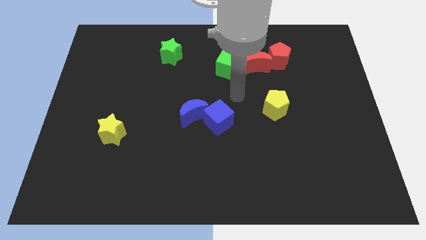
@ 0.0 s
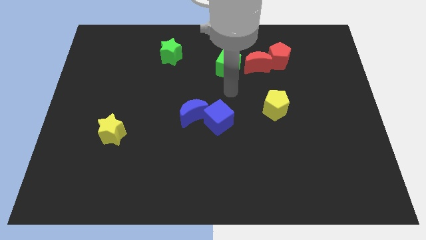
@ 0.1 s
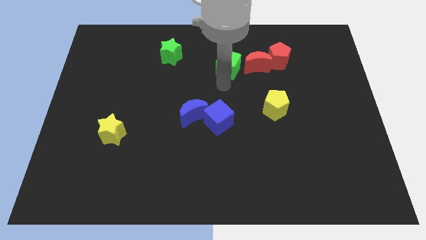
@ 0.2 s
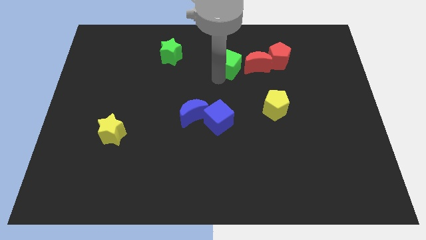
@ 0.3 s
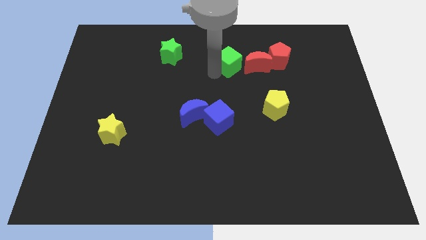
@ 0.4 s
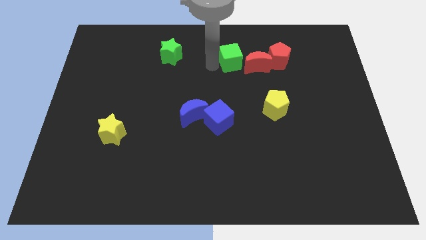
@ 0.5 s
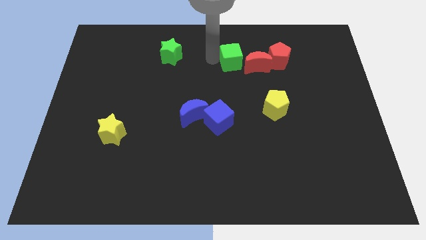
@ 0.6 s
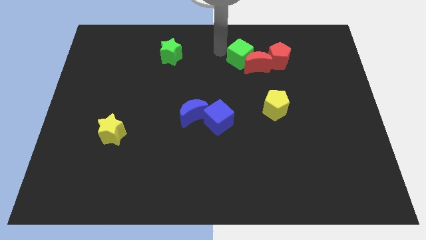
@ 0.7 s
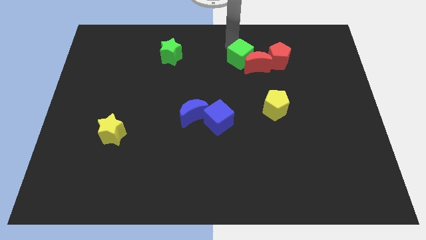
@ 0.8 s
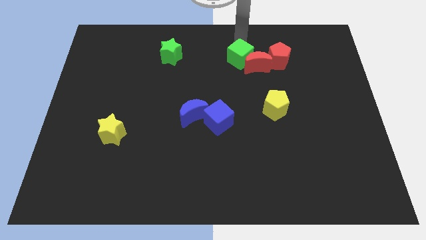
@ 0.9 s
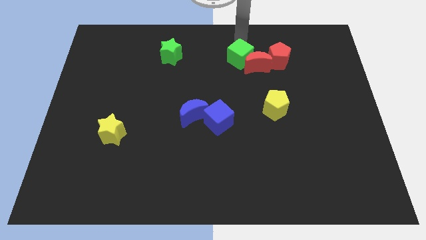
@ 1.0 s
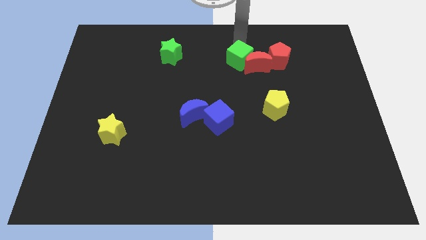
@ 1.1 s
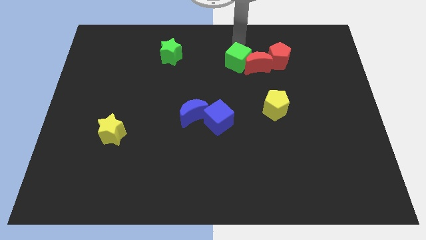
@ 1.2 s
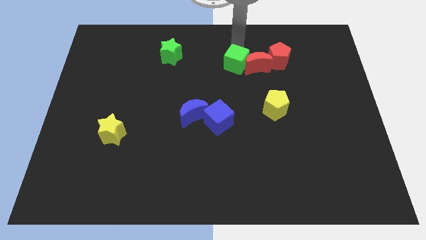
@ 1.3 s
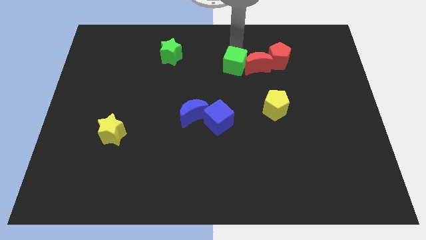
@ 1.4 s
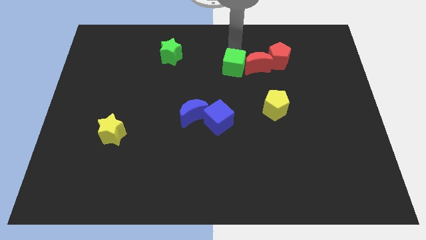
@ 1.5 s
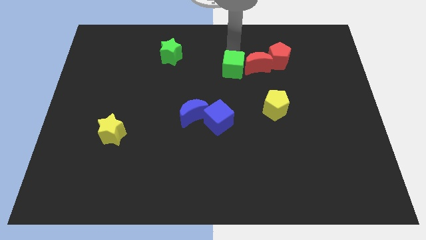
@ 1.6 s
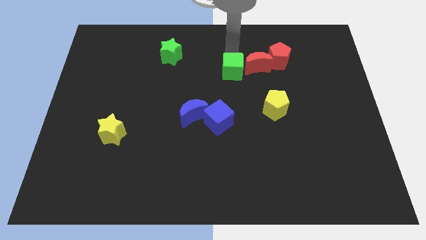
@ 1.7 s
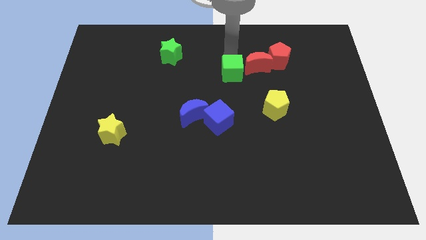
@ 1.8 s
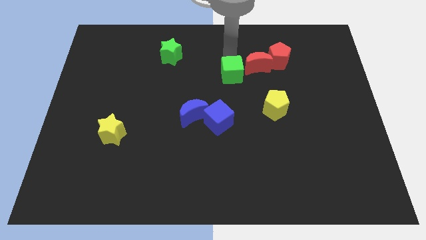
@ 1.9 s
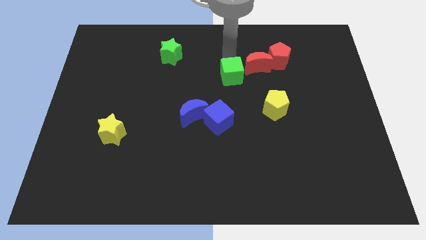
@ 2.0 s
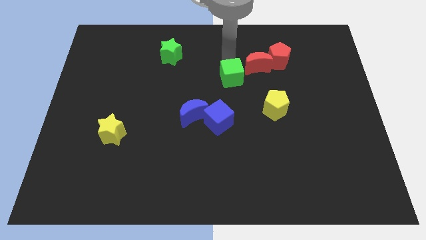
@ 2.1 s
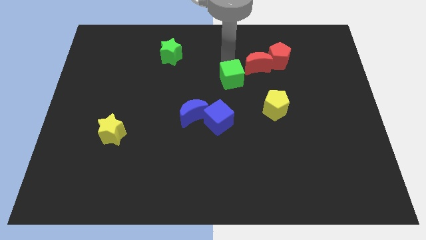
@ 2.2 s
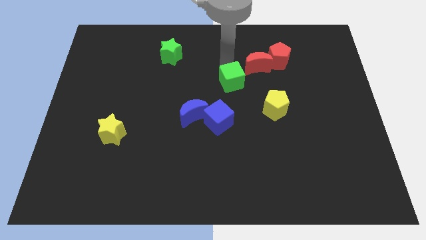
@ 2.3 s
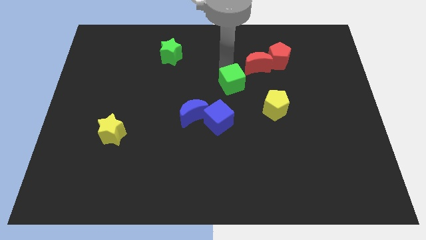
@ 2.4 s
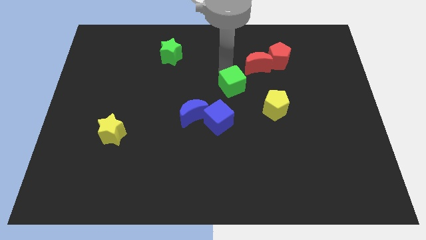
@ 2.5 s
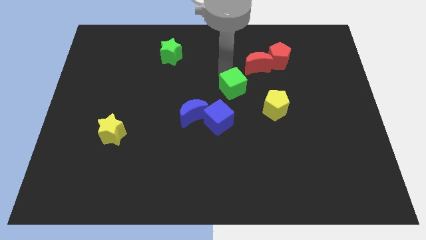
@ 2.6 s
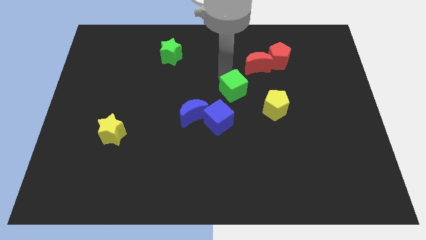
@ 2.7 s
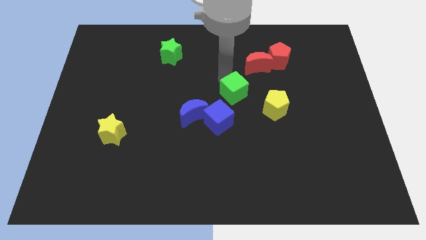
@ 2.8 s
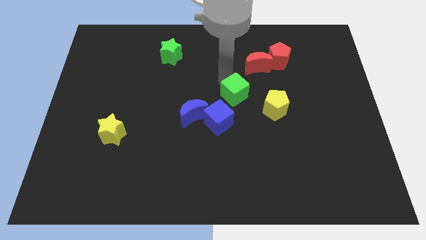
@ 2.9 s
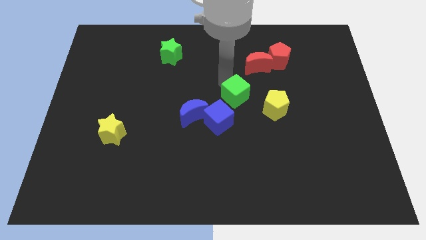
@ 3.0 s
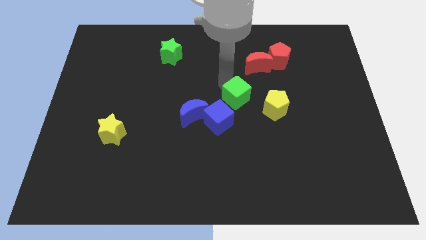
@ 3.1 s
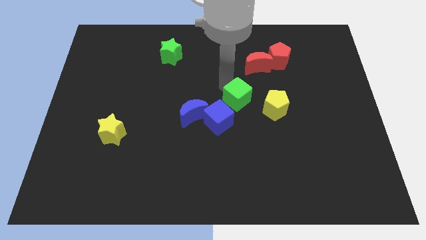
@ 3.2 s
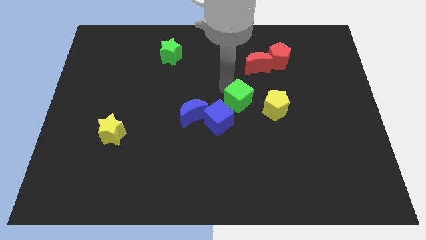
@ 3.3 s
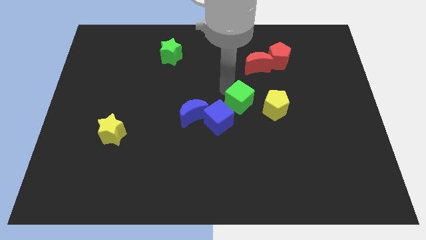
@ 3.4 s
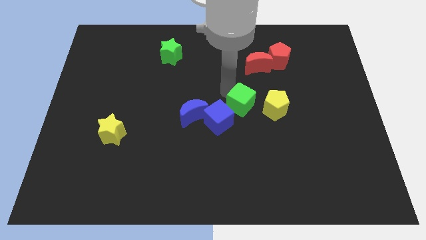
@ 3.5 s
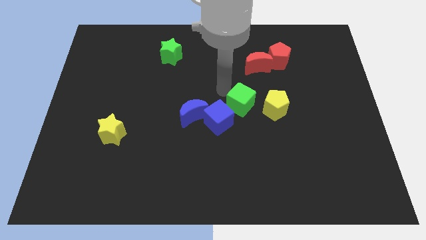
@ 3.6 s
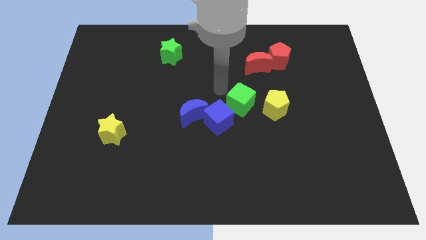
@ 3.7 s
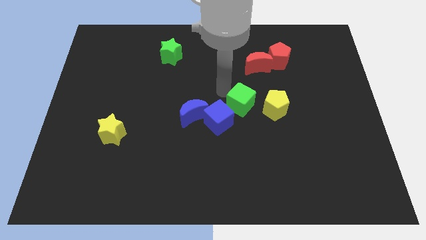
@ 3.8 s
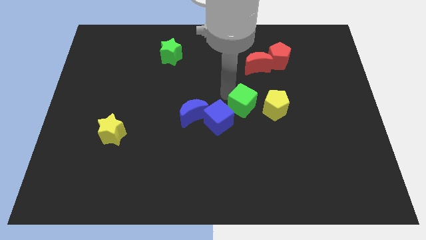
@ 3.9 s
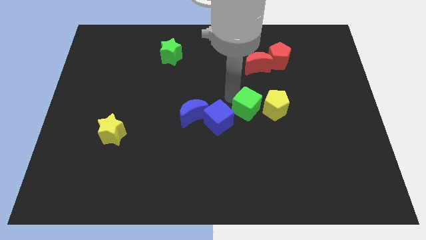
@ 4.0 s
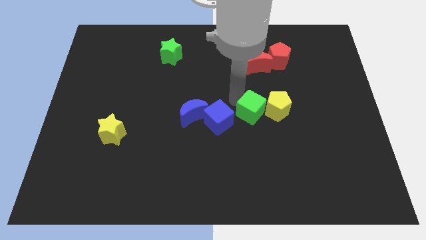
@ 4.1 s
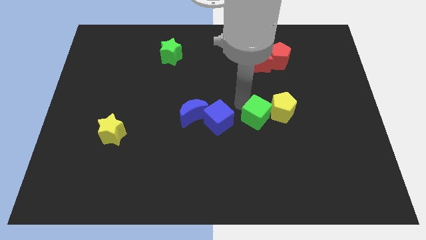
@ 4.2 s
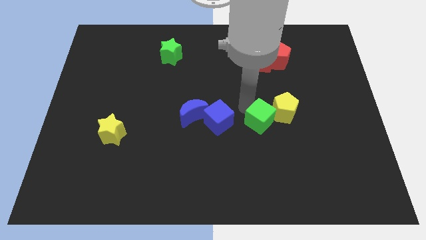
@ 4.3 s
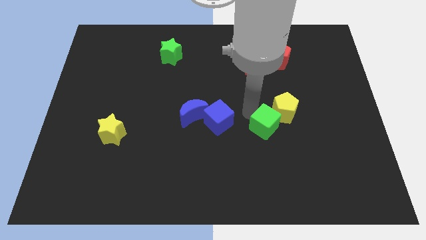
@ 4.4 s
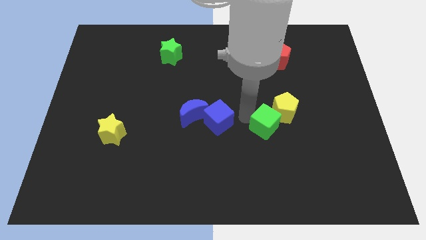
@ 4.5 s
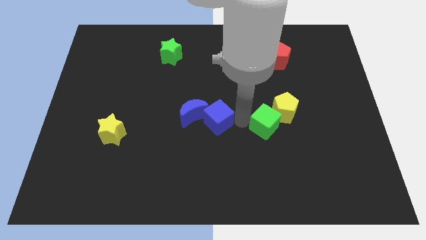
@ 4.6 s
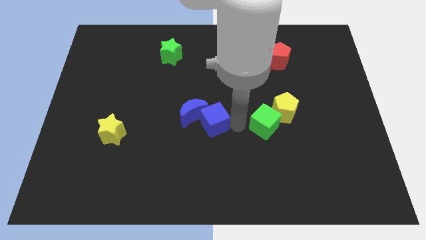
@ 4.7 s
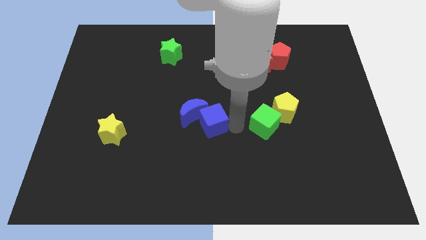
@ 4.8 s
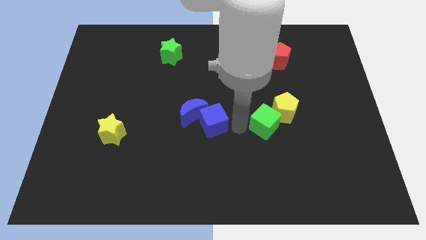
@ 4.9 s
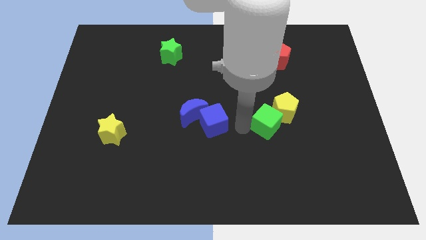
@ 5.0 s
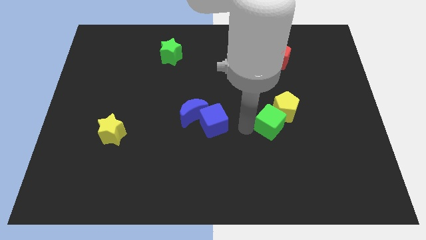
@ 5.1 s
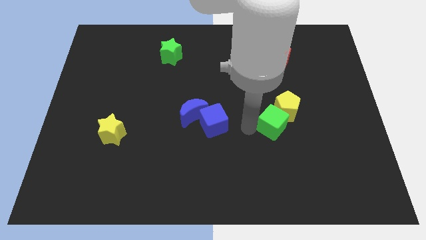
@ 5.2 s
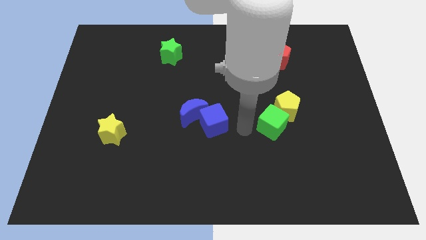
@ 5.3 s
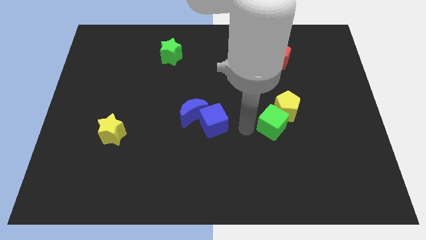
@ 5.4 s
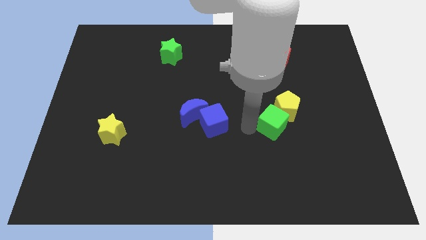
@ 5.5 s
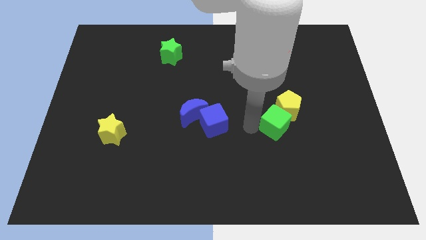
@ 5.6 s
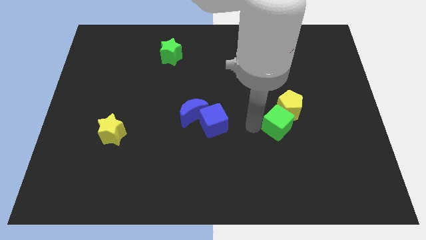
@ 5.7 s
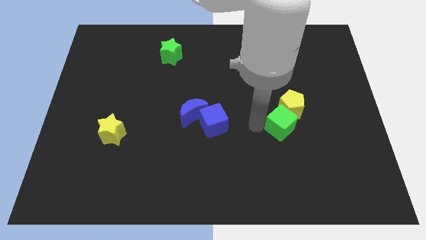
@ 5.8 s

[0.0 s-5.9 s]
move the green cube down and to the right diagonally

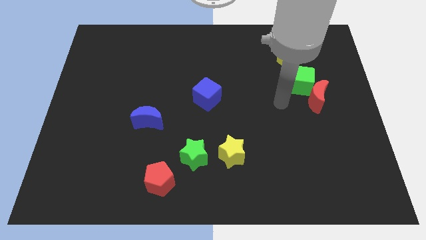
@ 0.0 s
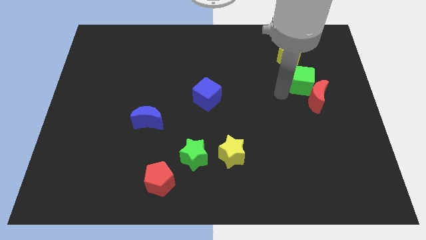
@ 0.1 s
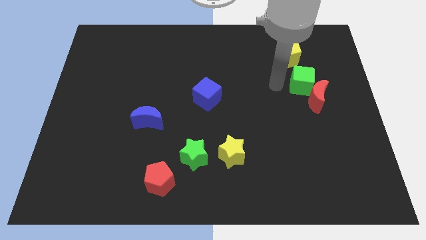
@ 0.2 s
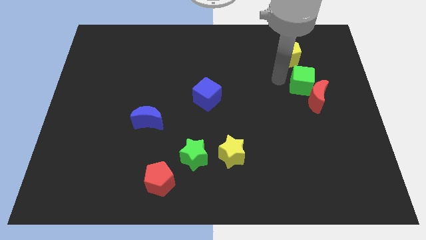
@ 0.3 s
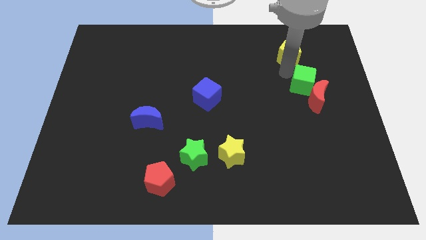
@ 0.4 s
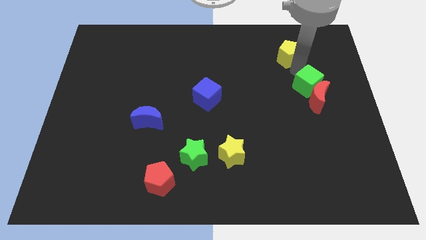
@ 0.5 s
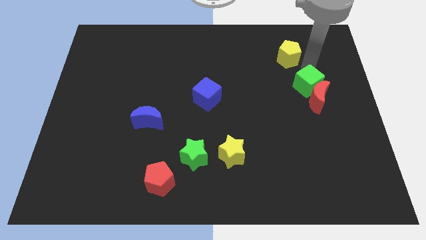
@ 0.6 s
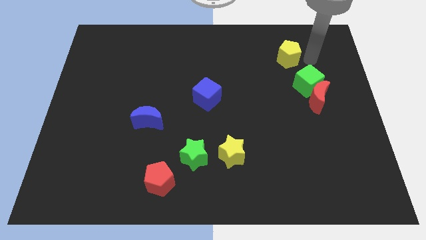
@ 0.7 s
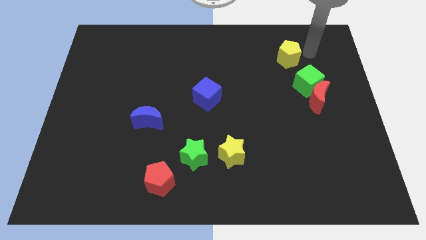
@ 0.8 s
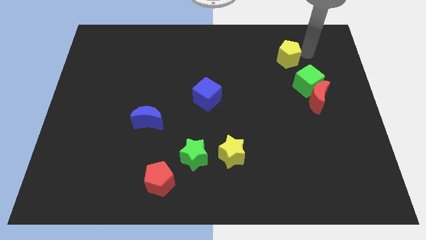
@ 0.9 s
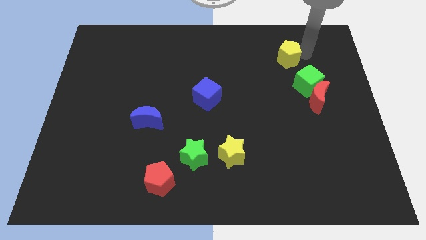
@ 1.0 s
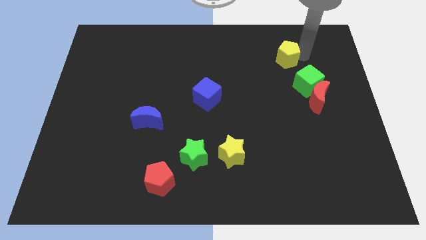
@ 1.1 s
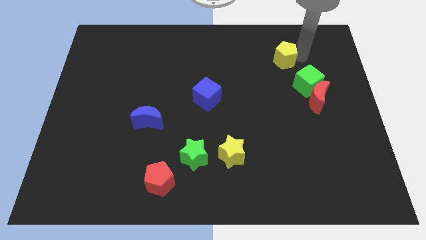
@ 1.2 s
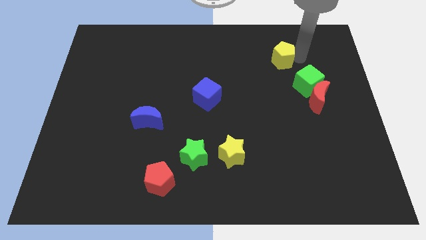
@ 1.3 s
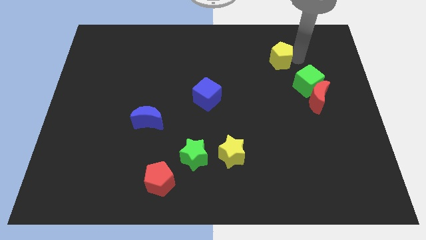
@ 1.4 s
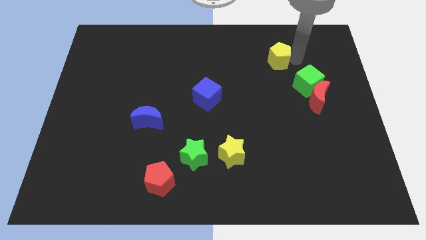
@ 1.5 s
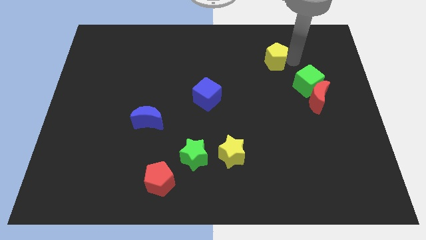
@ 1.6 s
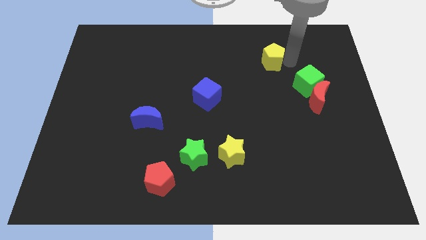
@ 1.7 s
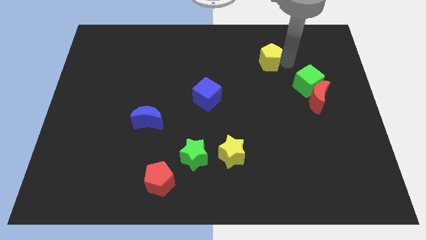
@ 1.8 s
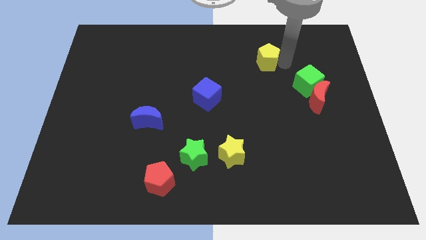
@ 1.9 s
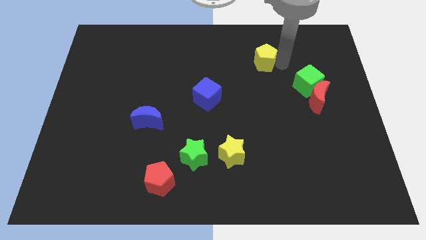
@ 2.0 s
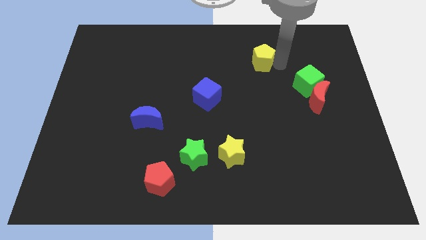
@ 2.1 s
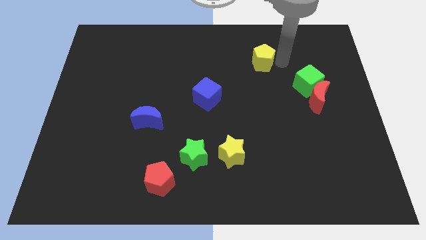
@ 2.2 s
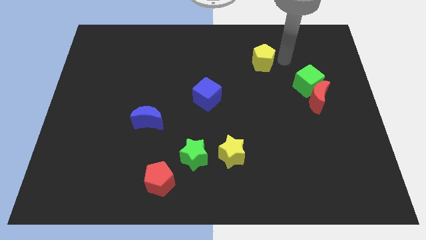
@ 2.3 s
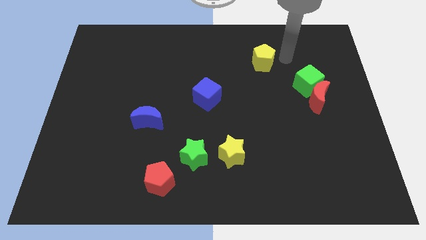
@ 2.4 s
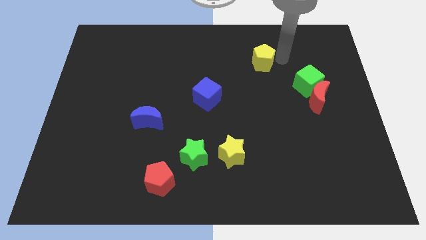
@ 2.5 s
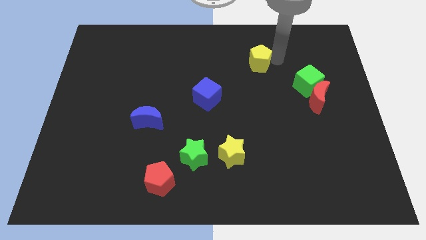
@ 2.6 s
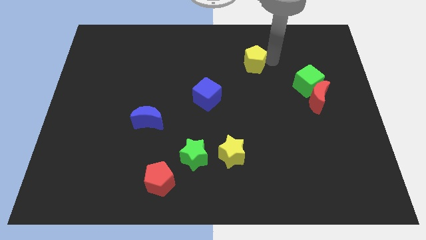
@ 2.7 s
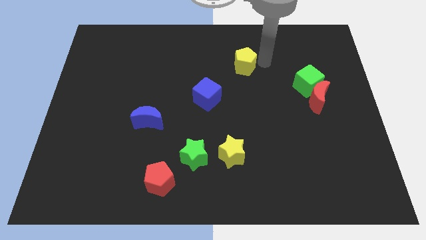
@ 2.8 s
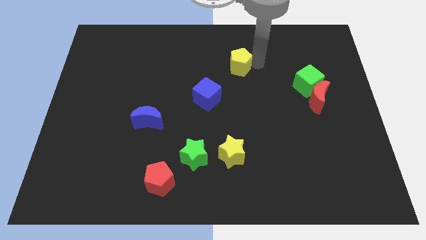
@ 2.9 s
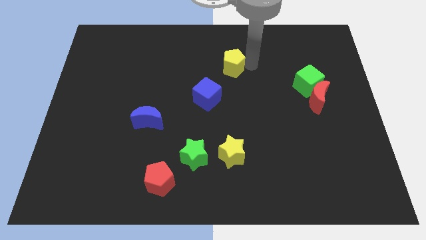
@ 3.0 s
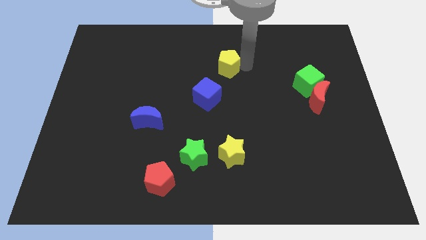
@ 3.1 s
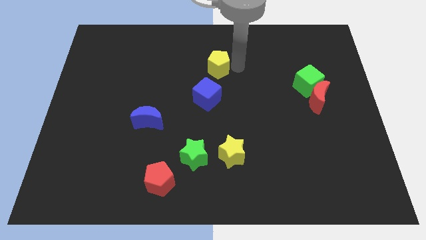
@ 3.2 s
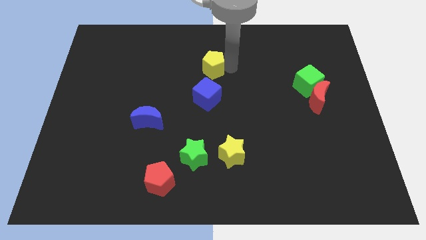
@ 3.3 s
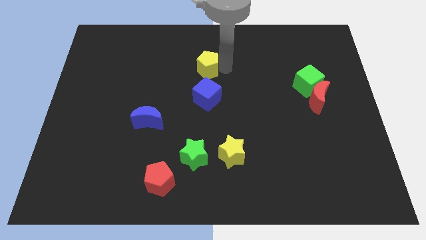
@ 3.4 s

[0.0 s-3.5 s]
move the yellow pentagon left
